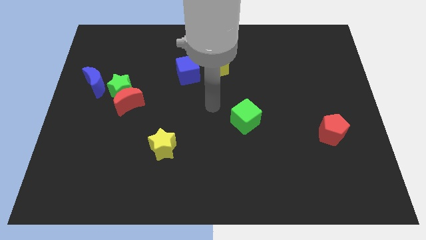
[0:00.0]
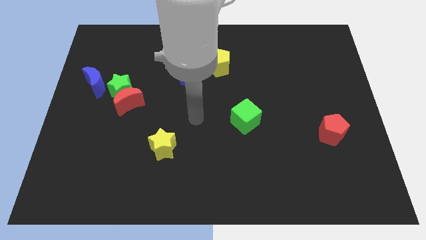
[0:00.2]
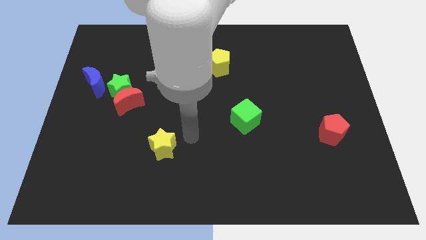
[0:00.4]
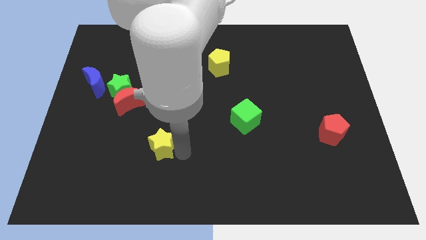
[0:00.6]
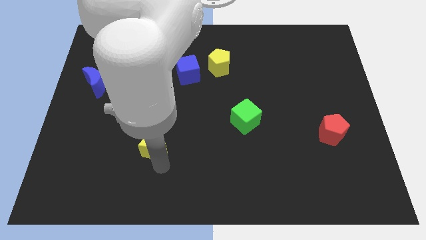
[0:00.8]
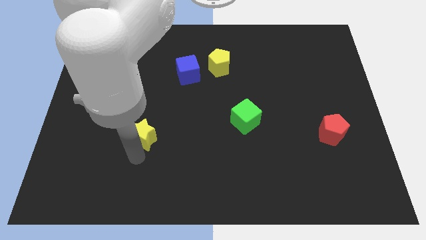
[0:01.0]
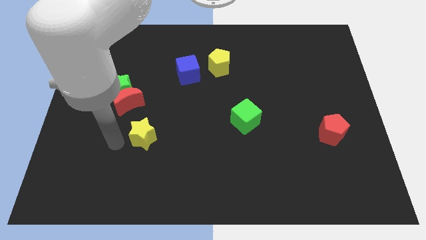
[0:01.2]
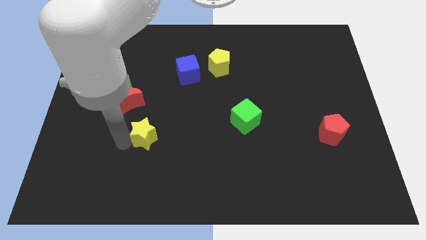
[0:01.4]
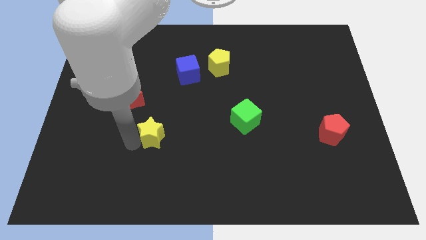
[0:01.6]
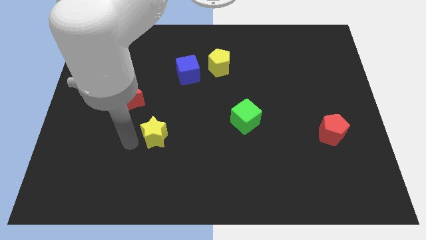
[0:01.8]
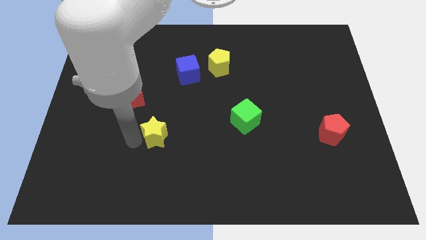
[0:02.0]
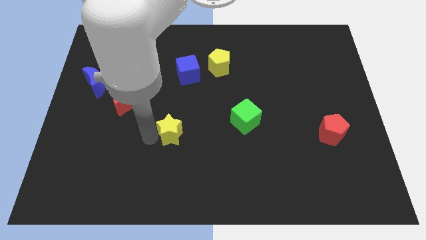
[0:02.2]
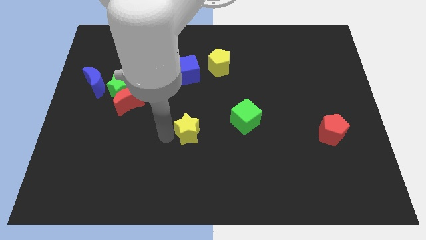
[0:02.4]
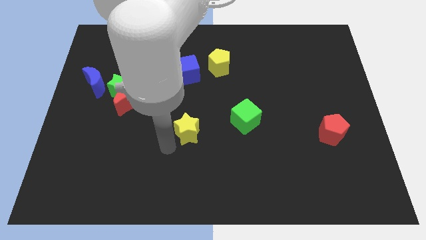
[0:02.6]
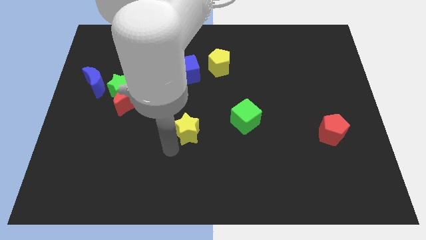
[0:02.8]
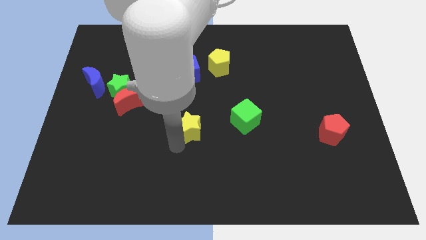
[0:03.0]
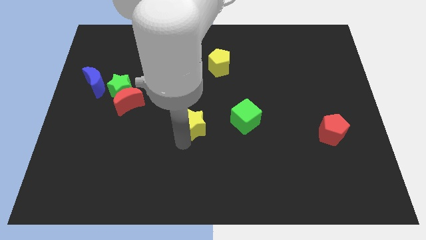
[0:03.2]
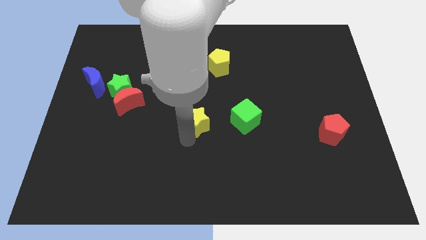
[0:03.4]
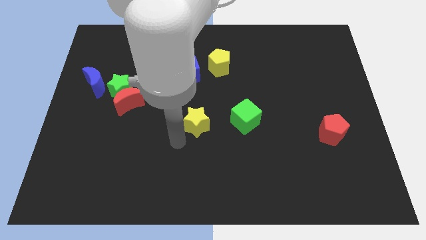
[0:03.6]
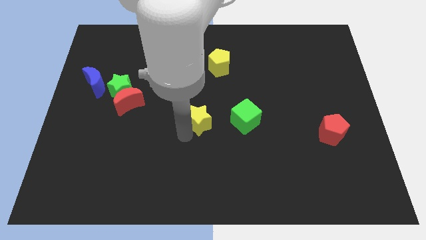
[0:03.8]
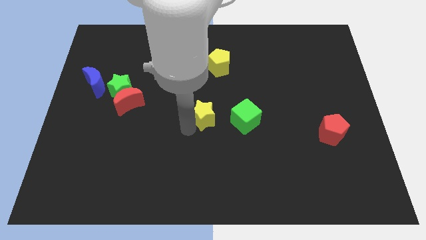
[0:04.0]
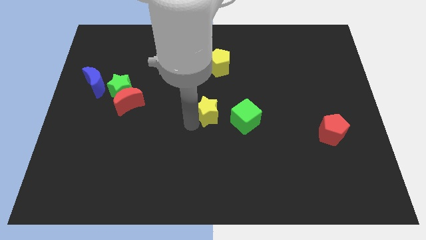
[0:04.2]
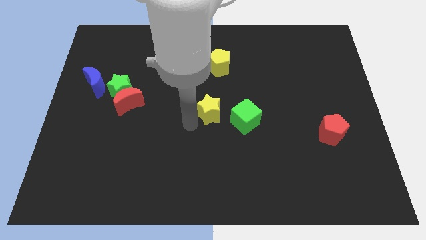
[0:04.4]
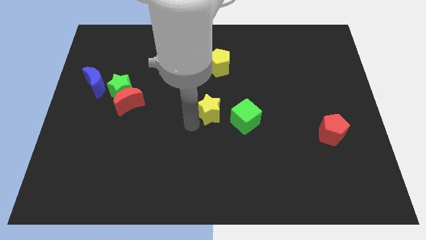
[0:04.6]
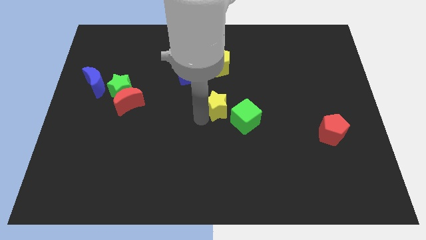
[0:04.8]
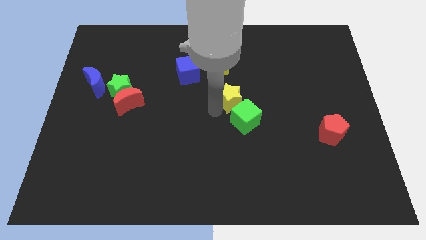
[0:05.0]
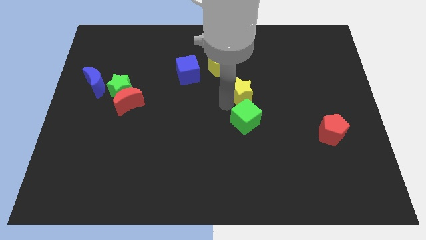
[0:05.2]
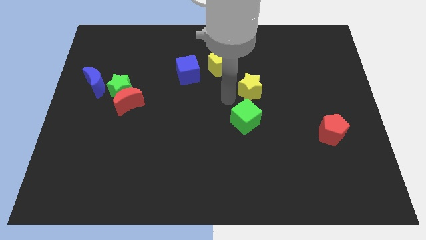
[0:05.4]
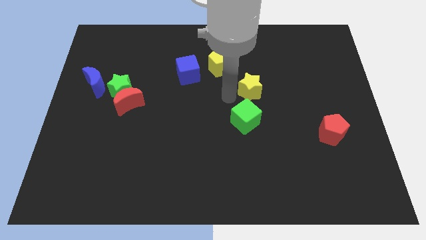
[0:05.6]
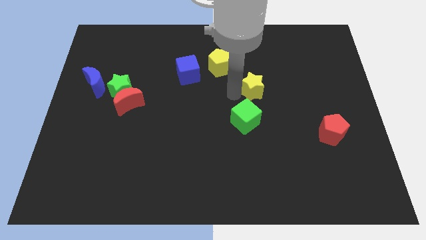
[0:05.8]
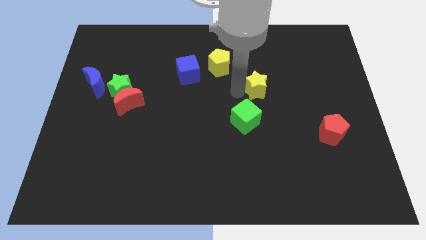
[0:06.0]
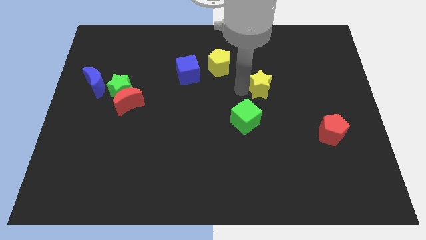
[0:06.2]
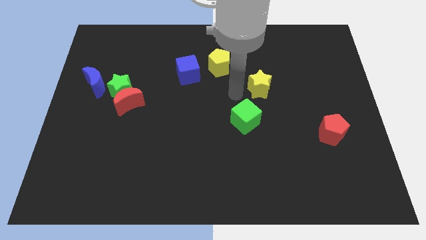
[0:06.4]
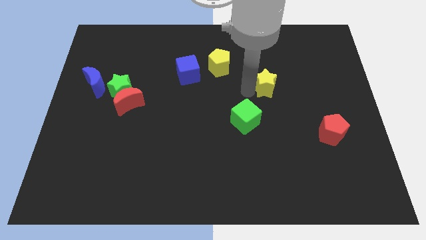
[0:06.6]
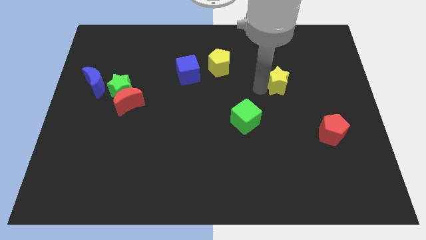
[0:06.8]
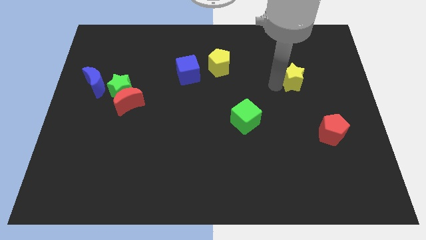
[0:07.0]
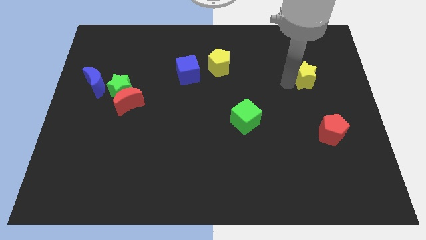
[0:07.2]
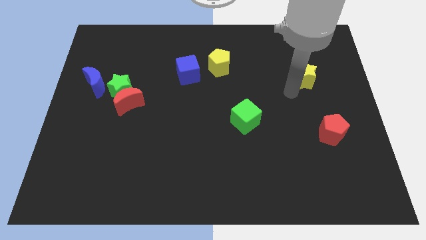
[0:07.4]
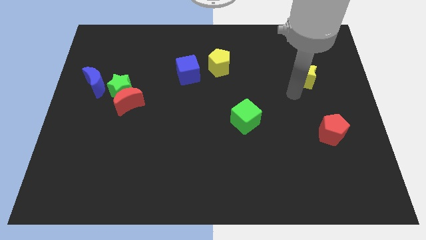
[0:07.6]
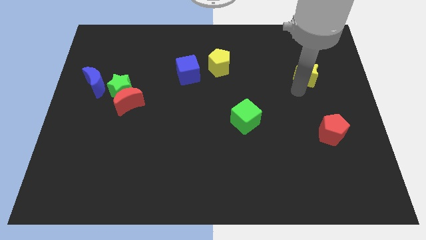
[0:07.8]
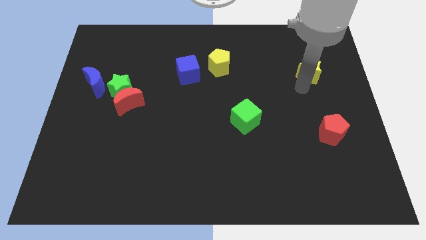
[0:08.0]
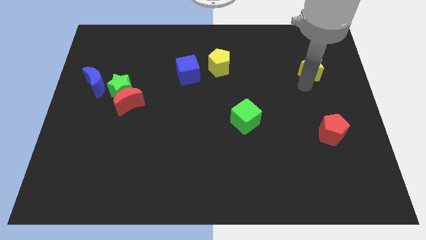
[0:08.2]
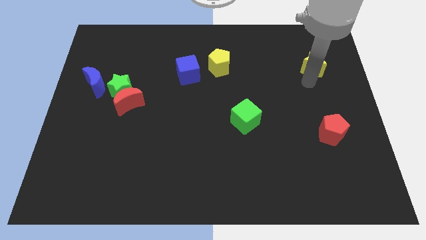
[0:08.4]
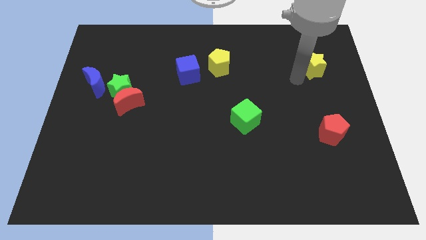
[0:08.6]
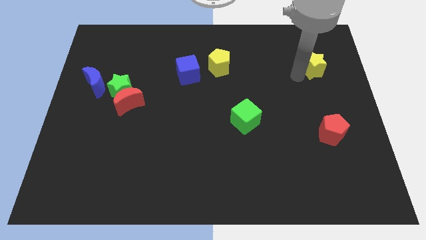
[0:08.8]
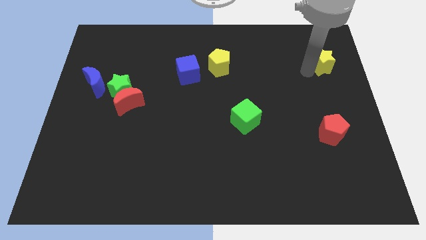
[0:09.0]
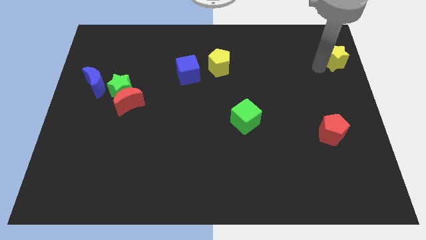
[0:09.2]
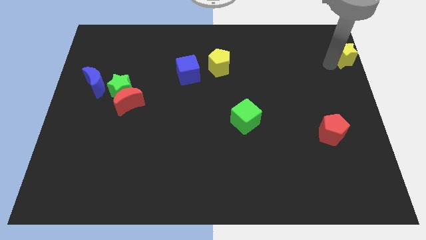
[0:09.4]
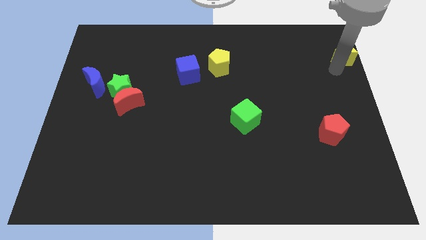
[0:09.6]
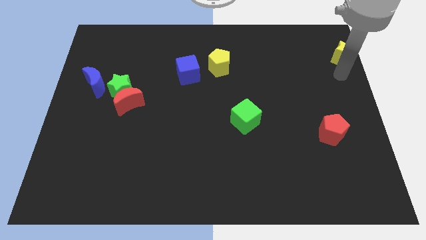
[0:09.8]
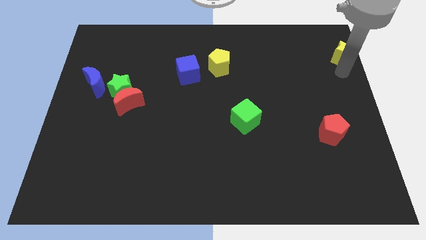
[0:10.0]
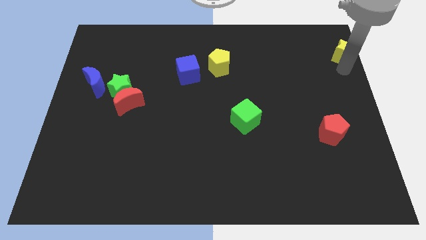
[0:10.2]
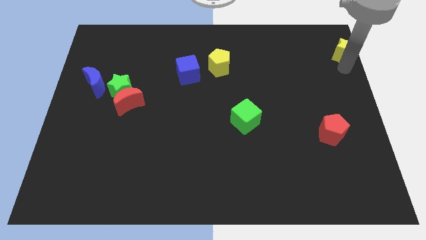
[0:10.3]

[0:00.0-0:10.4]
slide the yellow star to the top right of the board

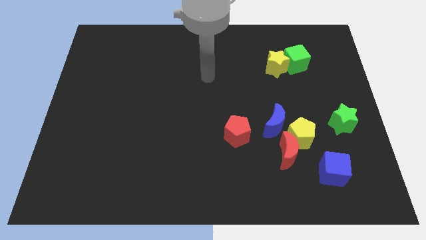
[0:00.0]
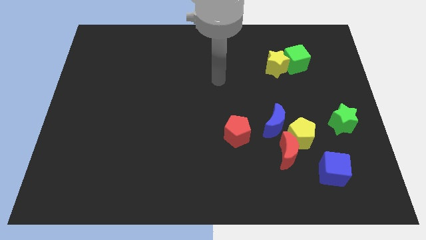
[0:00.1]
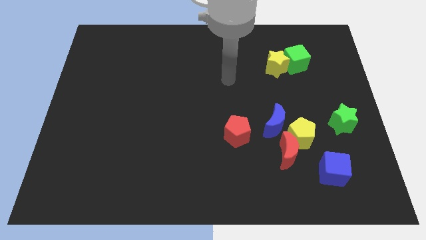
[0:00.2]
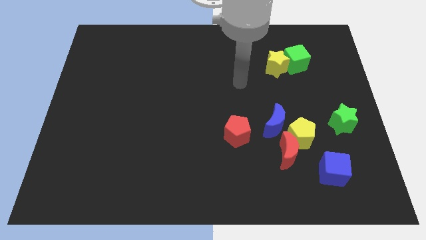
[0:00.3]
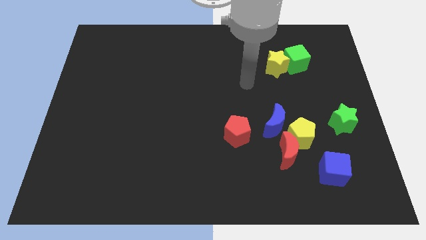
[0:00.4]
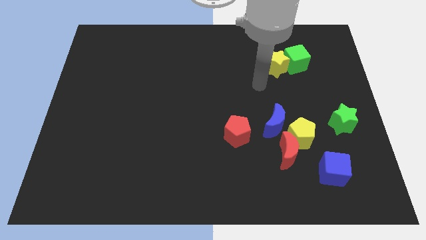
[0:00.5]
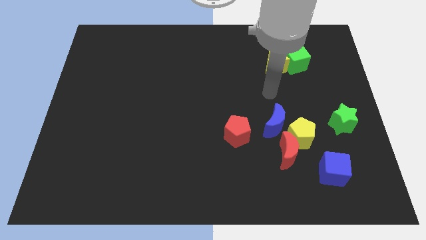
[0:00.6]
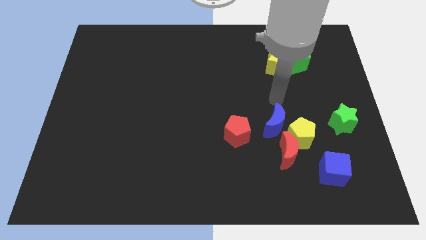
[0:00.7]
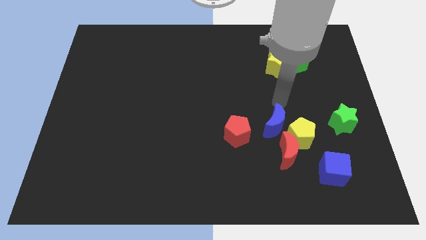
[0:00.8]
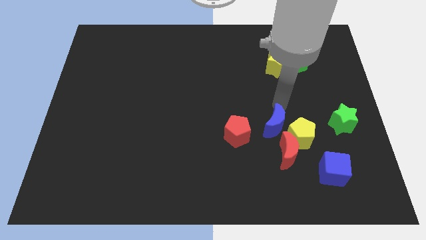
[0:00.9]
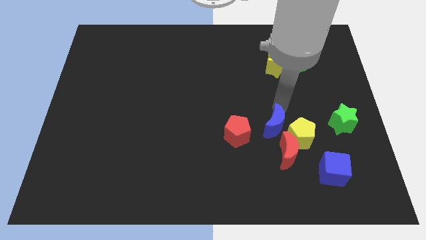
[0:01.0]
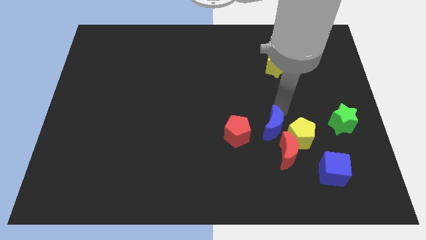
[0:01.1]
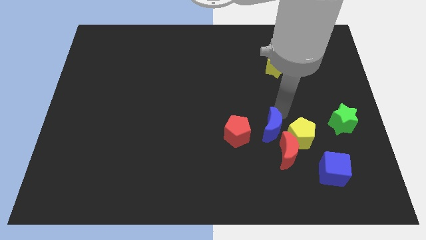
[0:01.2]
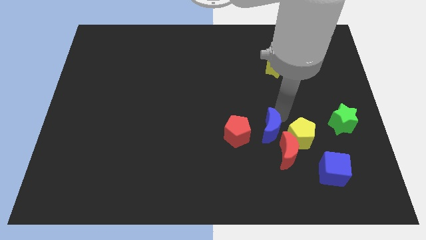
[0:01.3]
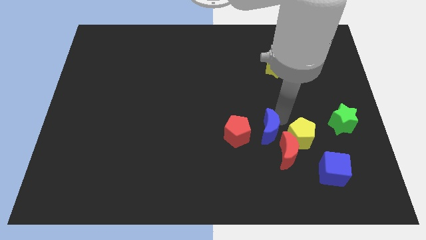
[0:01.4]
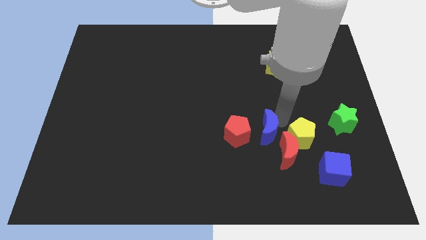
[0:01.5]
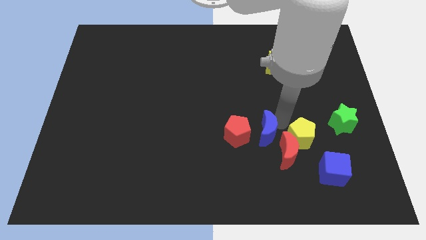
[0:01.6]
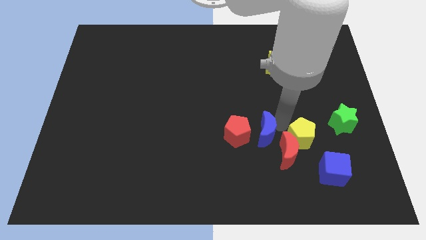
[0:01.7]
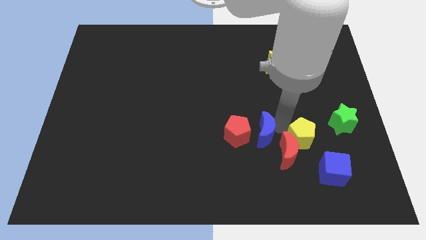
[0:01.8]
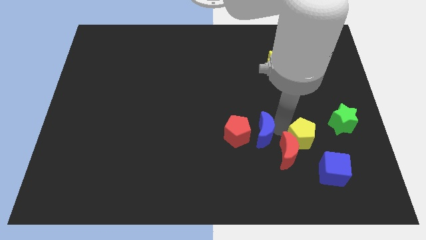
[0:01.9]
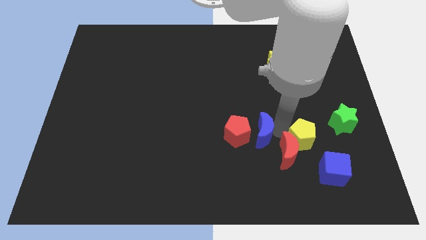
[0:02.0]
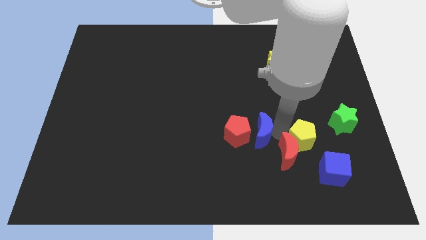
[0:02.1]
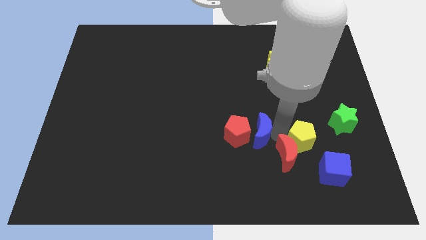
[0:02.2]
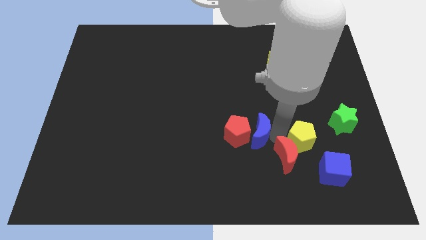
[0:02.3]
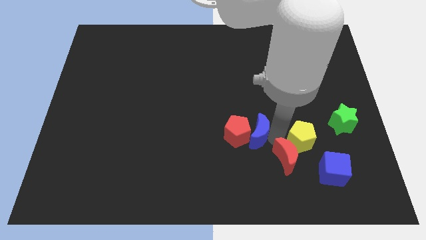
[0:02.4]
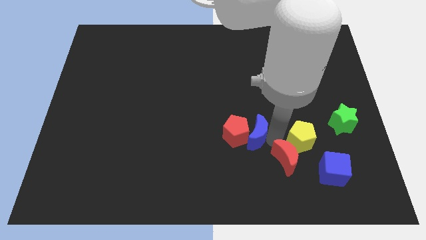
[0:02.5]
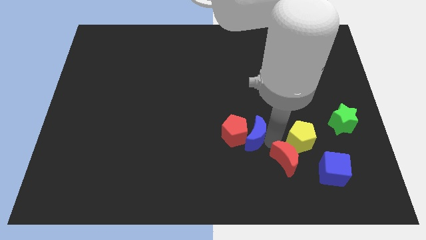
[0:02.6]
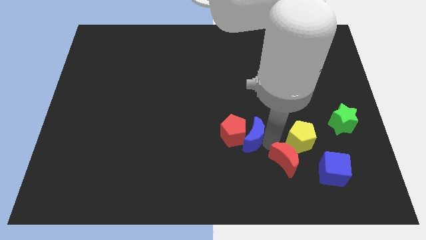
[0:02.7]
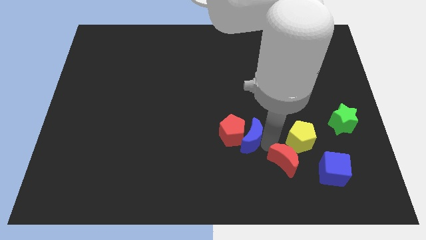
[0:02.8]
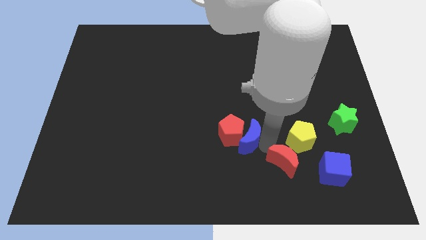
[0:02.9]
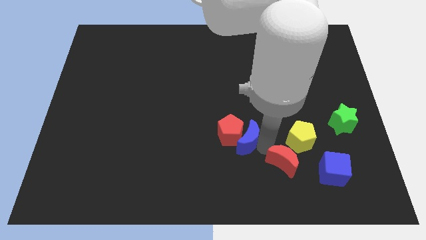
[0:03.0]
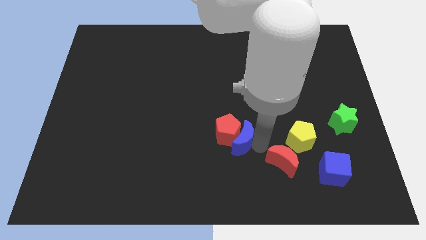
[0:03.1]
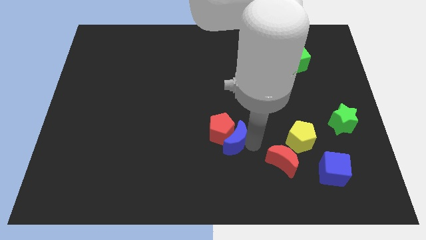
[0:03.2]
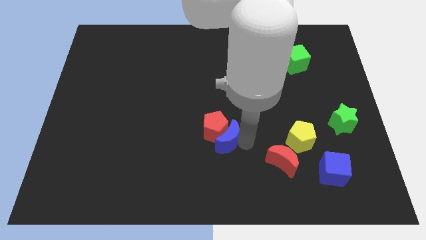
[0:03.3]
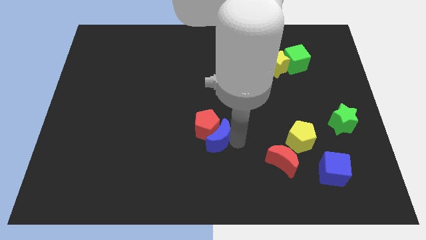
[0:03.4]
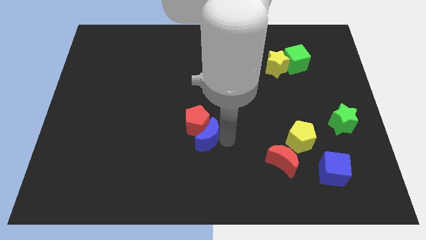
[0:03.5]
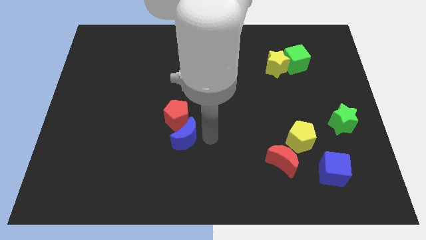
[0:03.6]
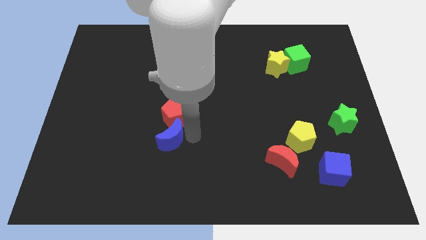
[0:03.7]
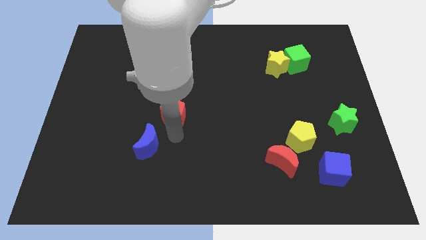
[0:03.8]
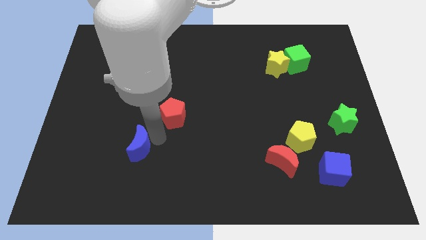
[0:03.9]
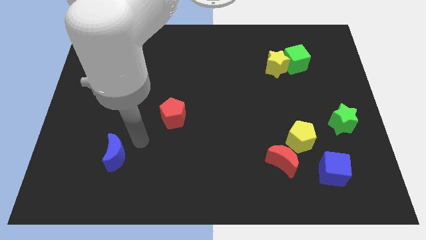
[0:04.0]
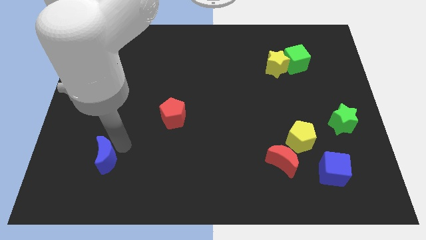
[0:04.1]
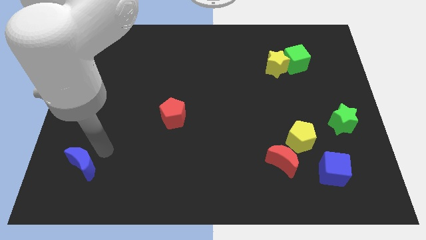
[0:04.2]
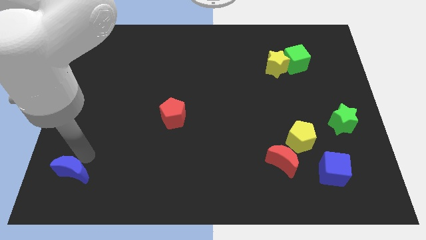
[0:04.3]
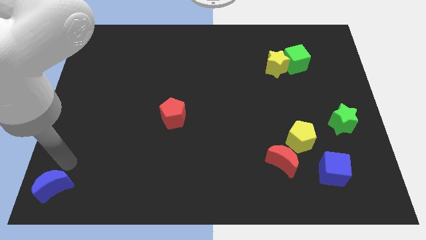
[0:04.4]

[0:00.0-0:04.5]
push the blue moon to the bottom left
